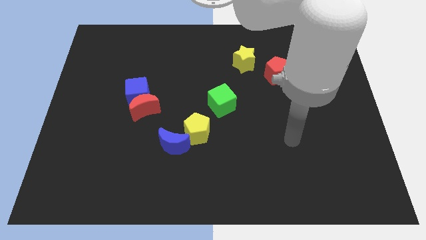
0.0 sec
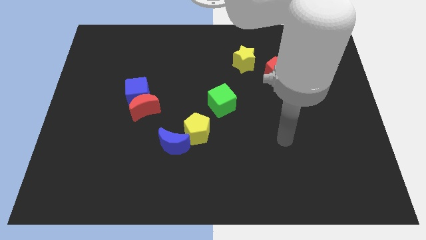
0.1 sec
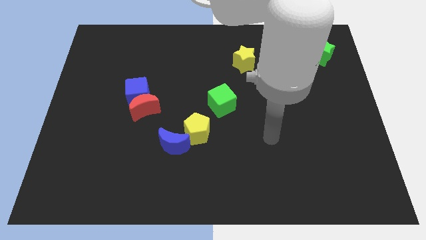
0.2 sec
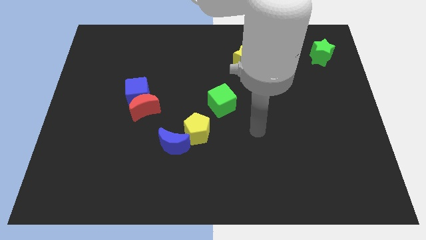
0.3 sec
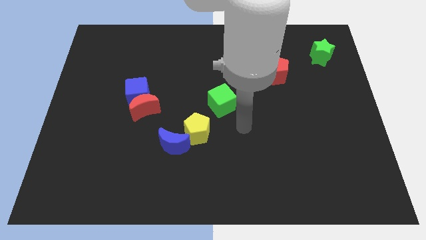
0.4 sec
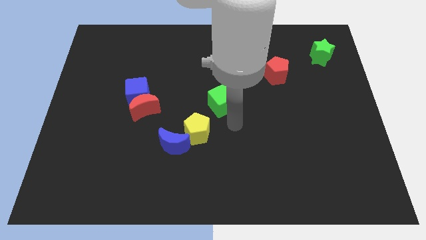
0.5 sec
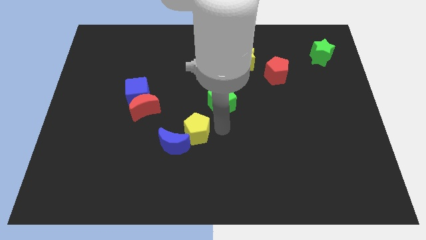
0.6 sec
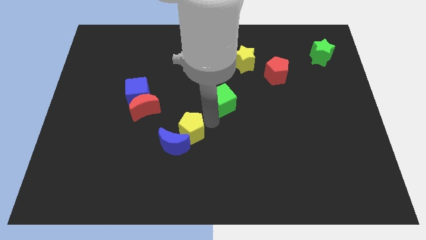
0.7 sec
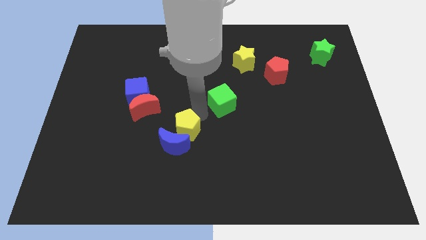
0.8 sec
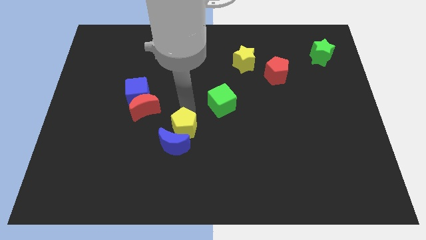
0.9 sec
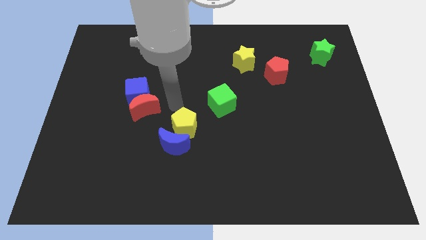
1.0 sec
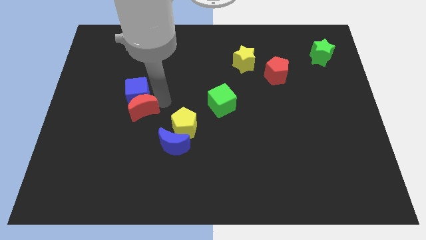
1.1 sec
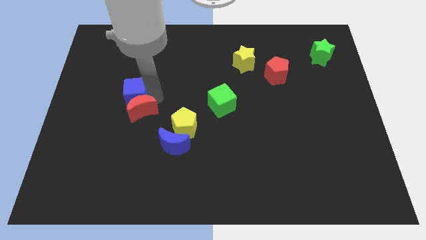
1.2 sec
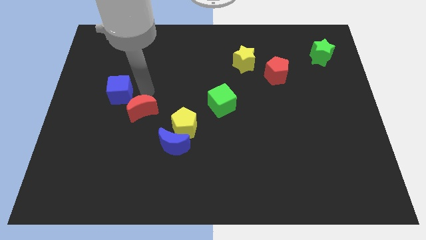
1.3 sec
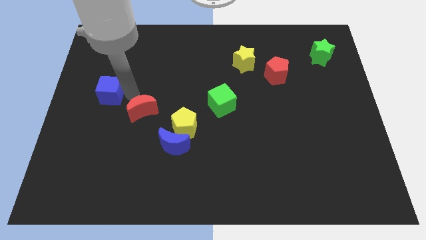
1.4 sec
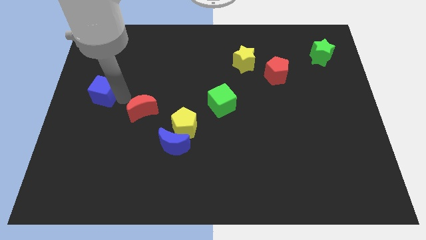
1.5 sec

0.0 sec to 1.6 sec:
separate the red moon from the blue cube

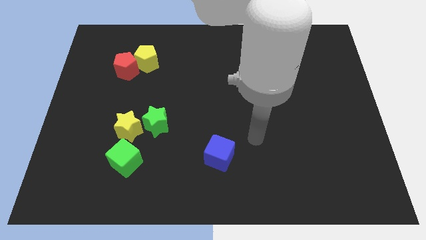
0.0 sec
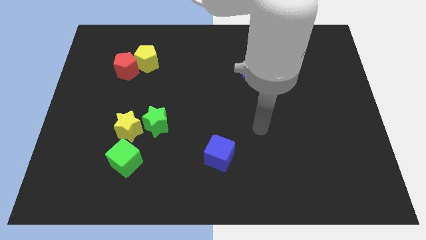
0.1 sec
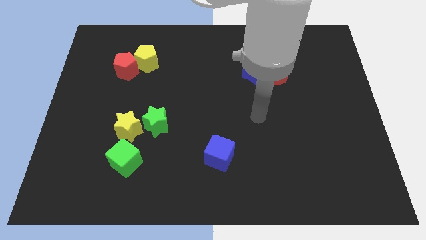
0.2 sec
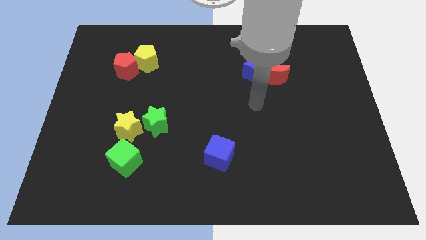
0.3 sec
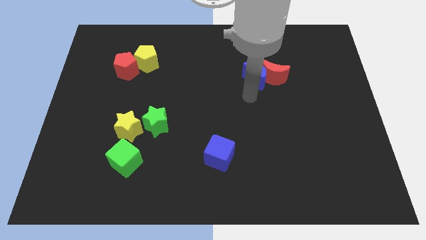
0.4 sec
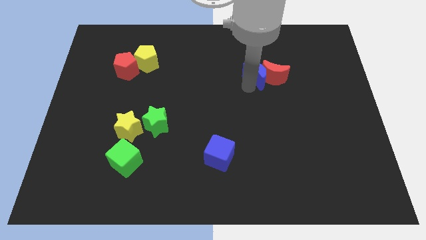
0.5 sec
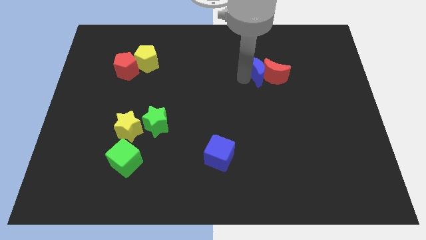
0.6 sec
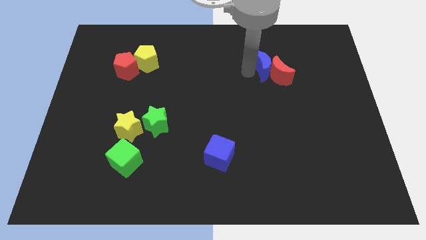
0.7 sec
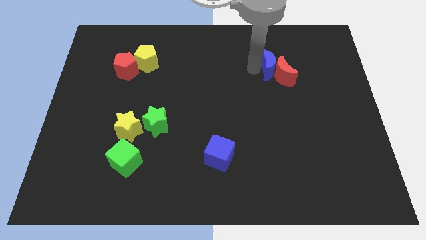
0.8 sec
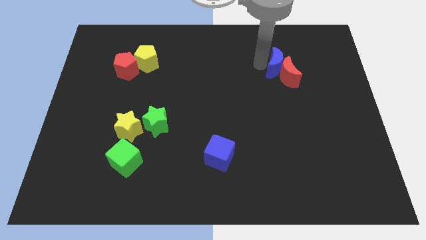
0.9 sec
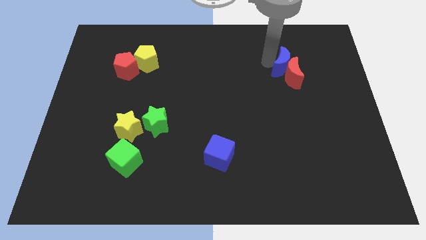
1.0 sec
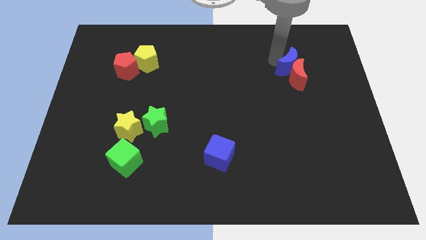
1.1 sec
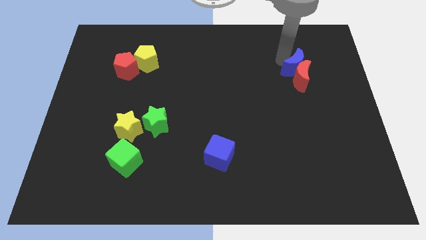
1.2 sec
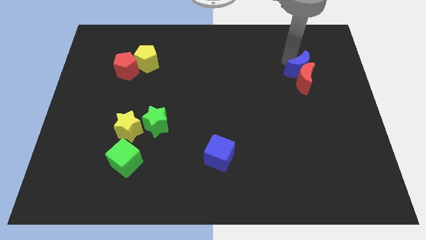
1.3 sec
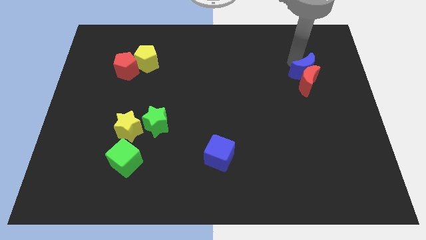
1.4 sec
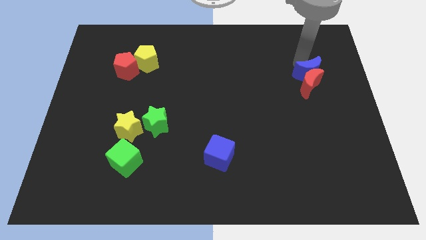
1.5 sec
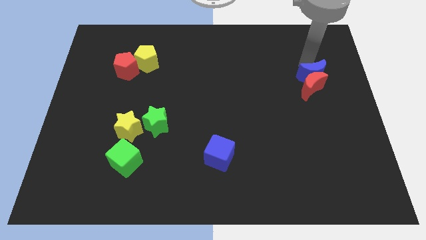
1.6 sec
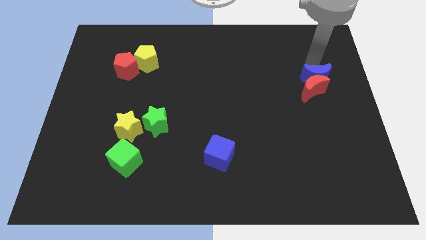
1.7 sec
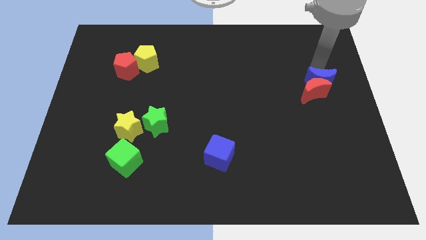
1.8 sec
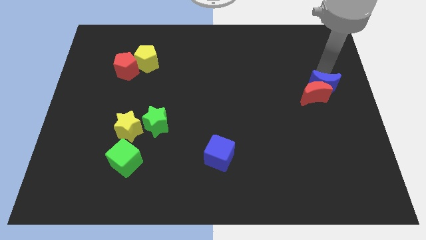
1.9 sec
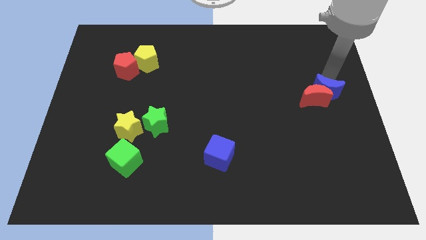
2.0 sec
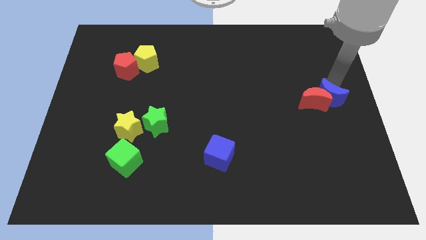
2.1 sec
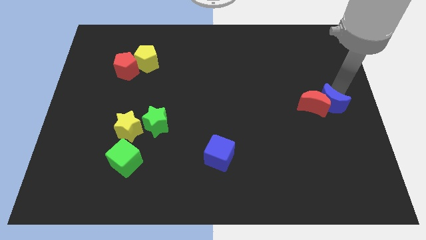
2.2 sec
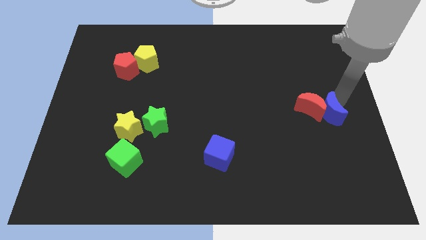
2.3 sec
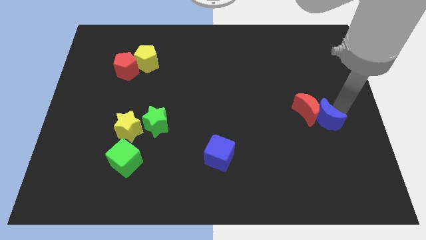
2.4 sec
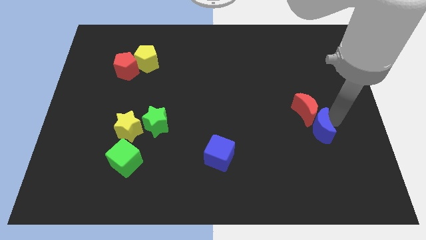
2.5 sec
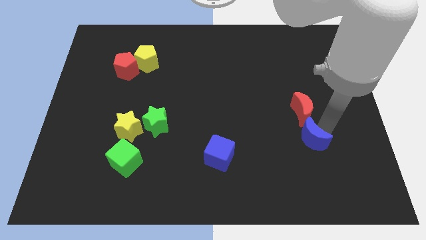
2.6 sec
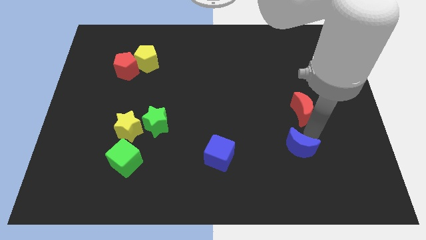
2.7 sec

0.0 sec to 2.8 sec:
pull the red moon apart from the blue moon

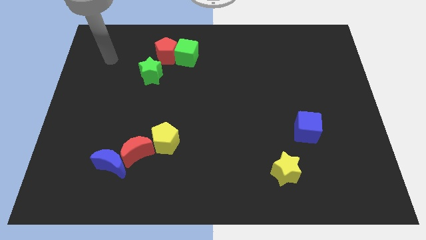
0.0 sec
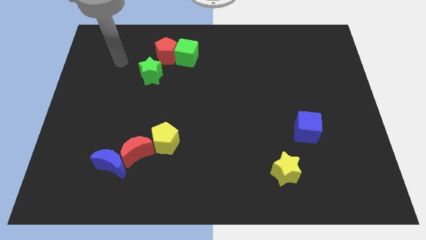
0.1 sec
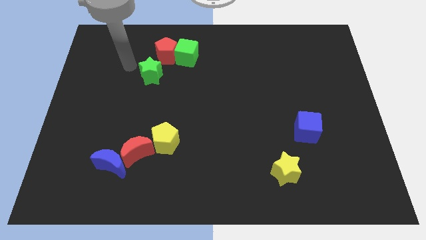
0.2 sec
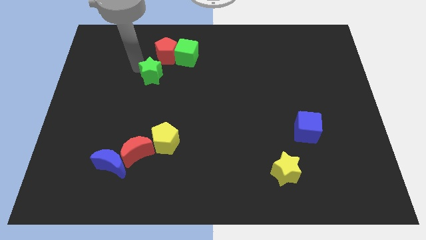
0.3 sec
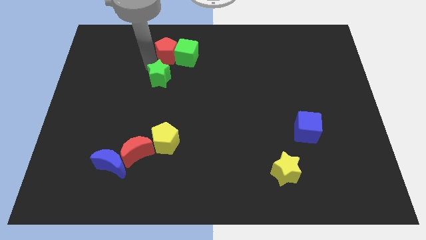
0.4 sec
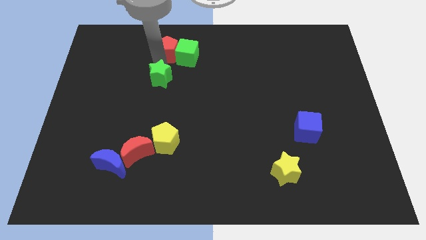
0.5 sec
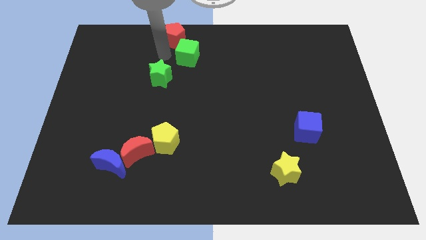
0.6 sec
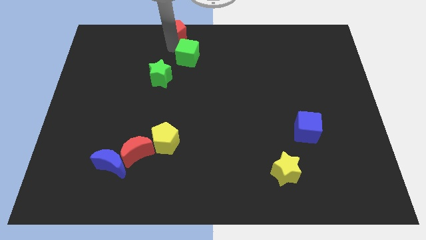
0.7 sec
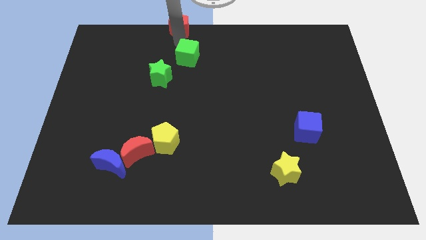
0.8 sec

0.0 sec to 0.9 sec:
separate the green cube from the red pentagon

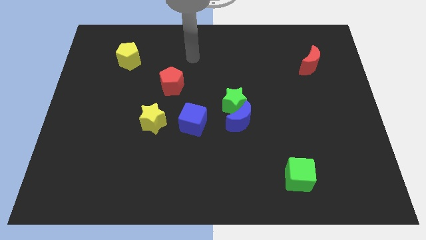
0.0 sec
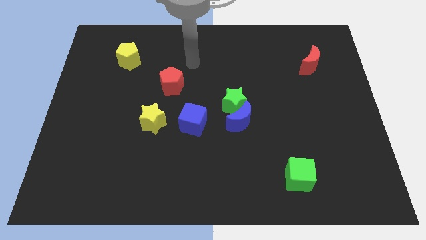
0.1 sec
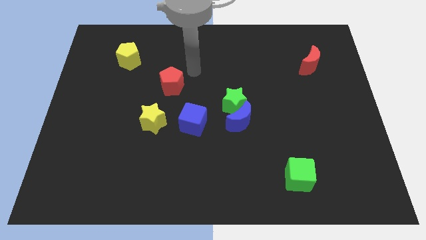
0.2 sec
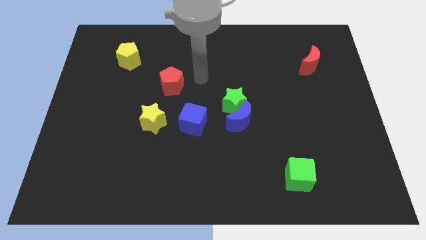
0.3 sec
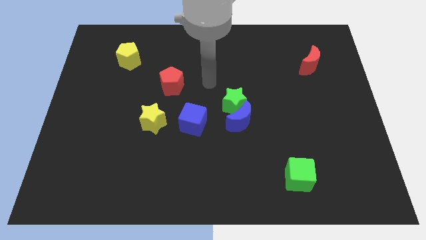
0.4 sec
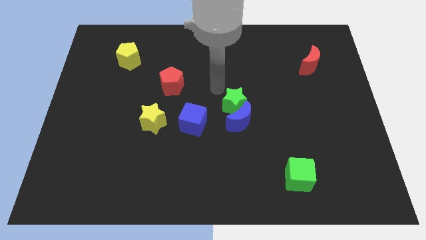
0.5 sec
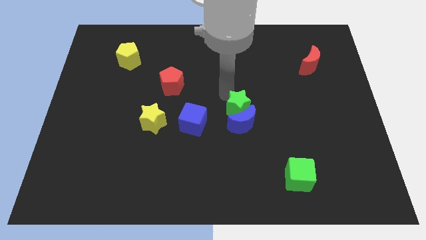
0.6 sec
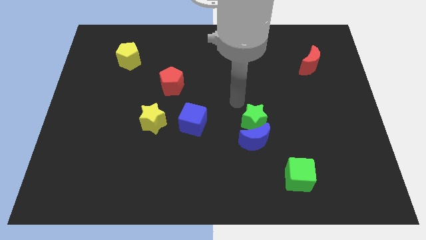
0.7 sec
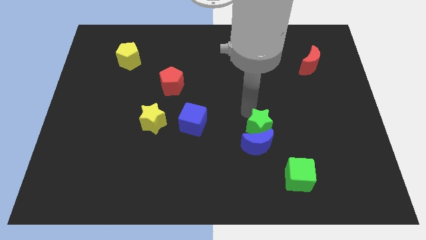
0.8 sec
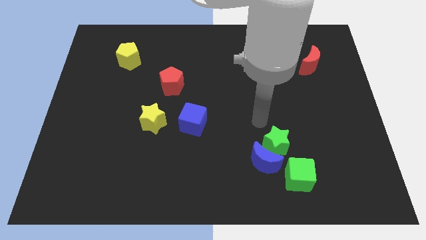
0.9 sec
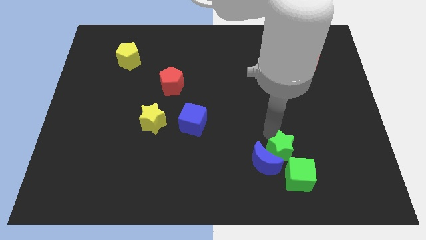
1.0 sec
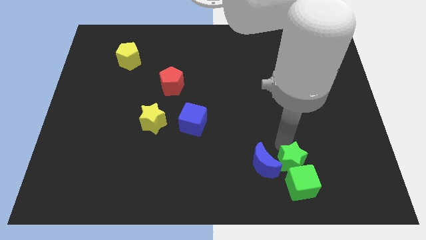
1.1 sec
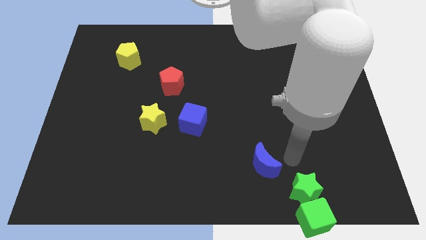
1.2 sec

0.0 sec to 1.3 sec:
separate the blue moon from the green star

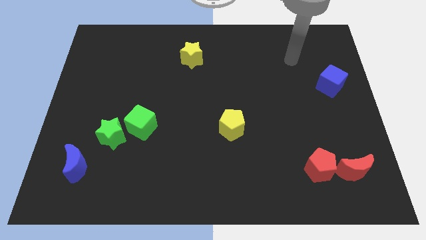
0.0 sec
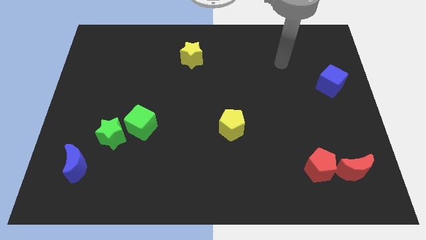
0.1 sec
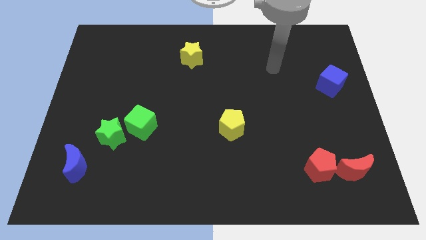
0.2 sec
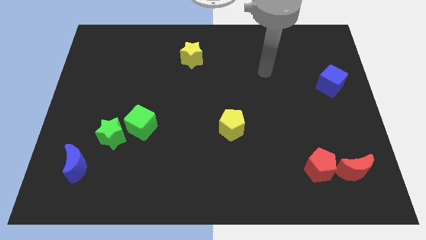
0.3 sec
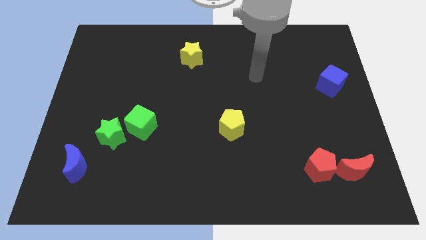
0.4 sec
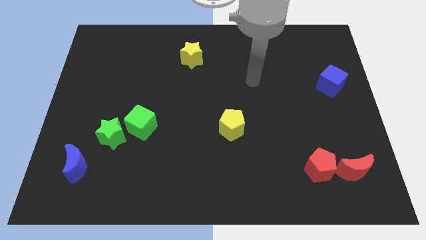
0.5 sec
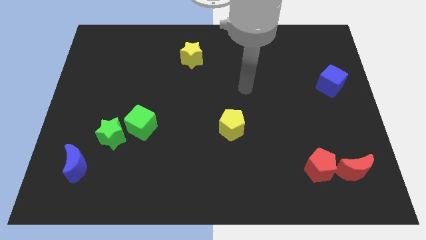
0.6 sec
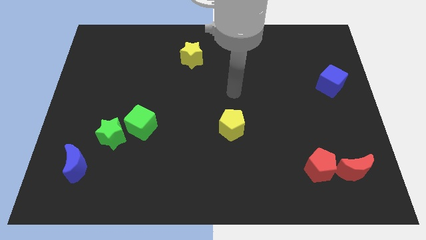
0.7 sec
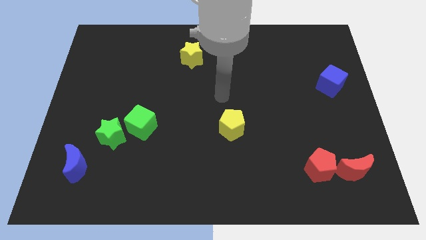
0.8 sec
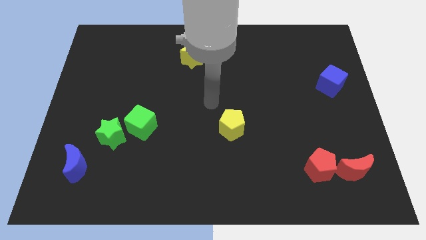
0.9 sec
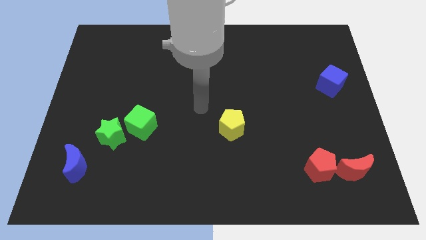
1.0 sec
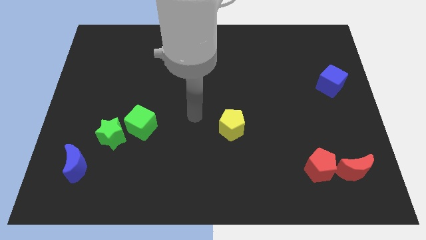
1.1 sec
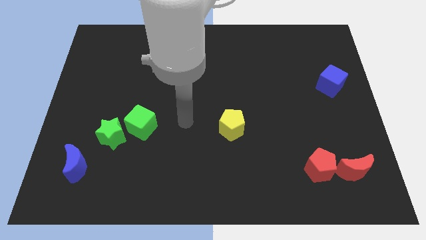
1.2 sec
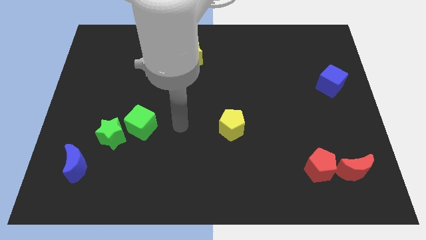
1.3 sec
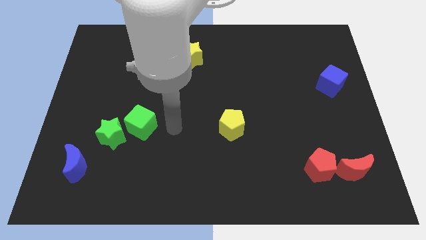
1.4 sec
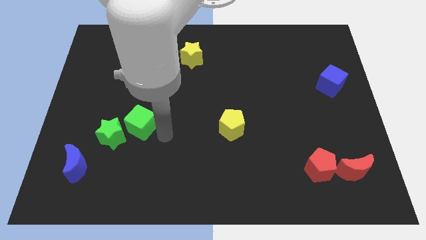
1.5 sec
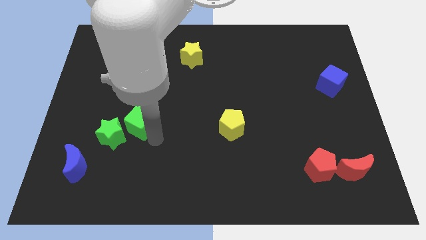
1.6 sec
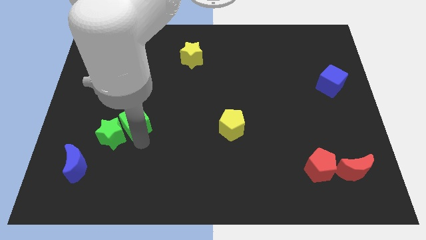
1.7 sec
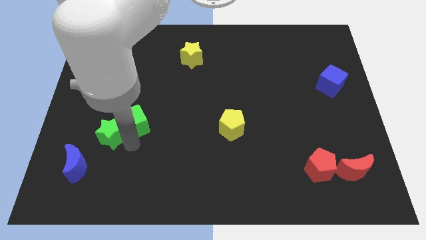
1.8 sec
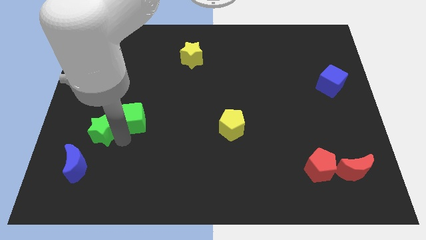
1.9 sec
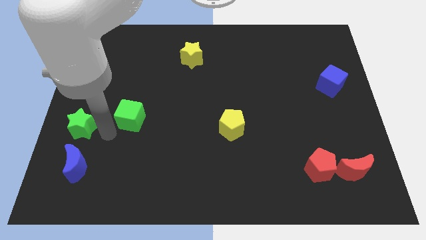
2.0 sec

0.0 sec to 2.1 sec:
separate the green cube from the green star

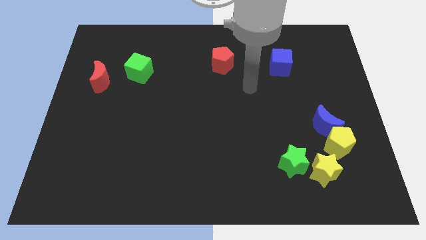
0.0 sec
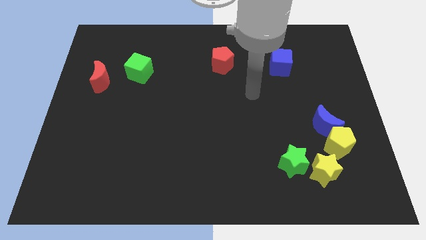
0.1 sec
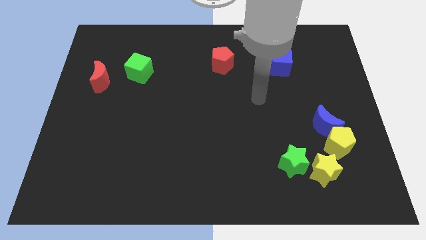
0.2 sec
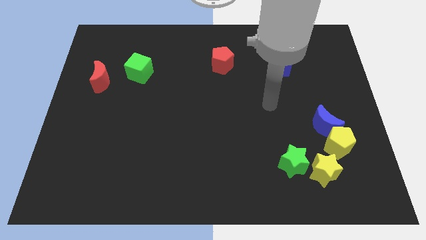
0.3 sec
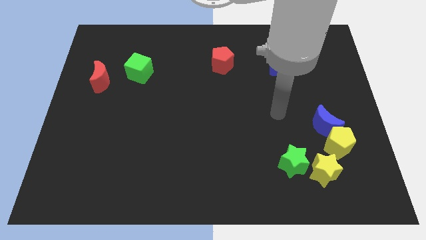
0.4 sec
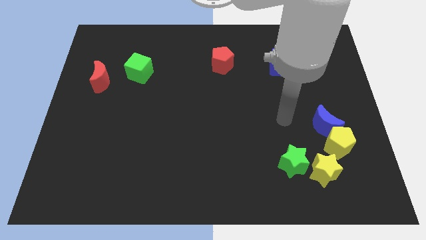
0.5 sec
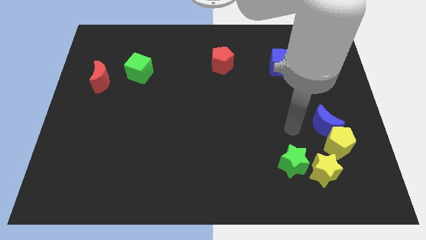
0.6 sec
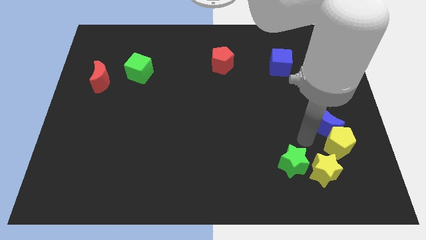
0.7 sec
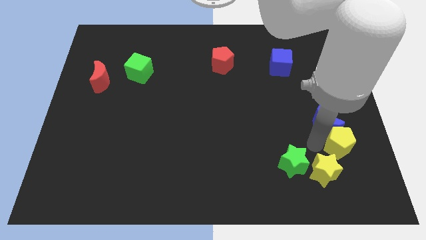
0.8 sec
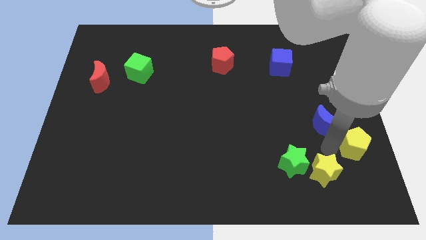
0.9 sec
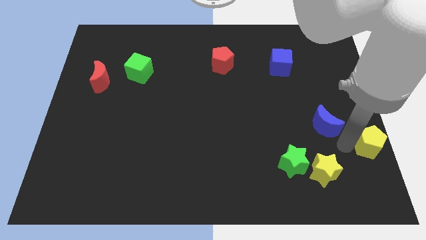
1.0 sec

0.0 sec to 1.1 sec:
pull the blue moon apart from the yellow pentagon
